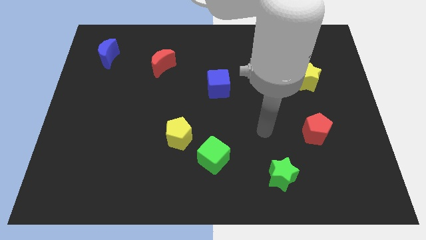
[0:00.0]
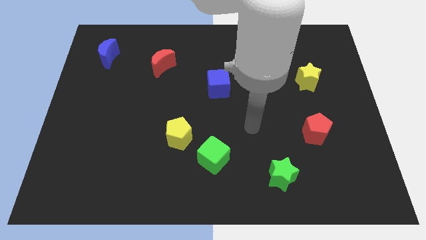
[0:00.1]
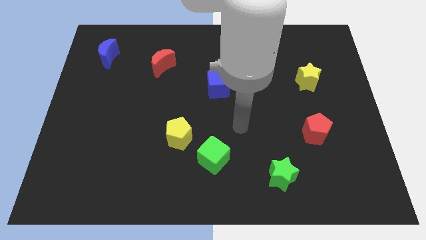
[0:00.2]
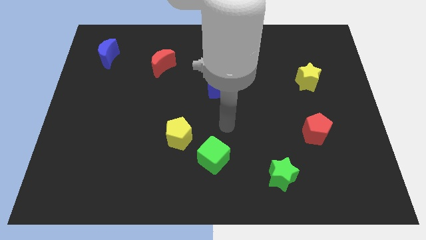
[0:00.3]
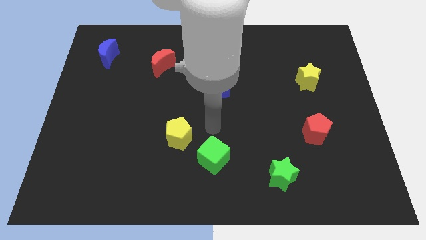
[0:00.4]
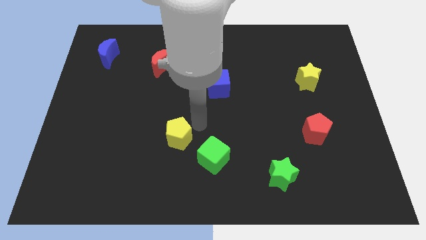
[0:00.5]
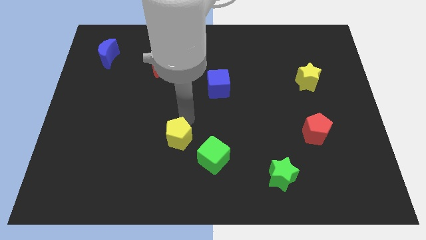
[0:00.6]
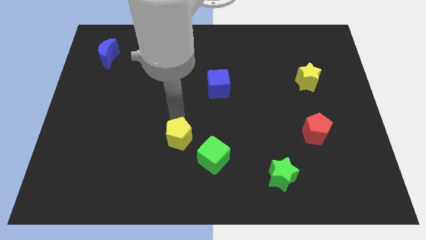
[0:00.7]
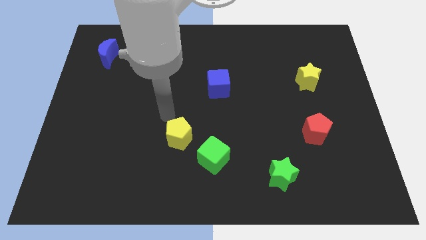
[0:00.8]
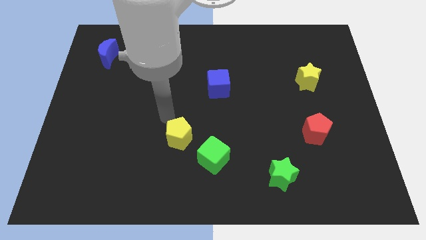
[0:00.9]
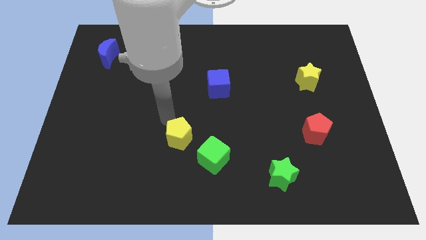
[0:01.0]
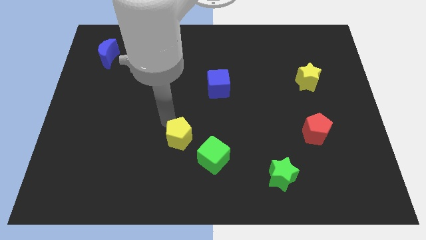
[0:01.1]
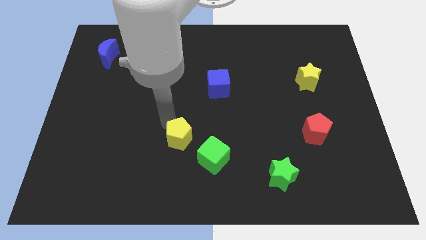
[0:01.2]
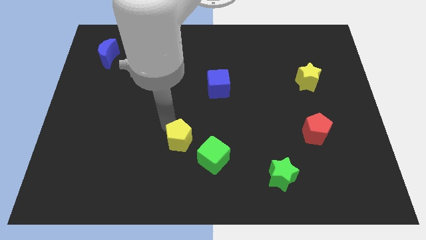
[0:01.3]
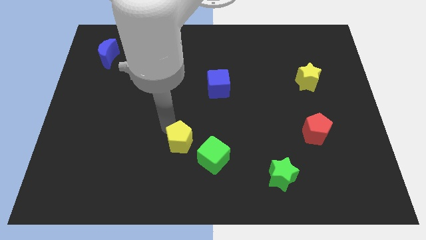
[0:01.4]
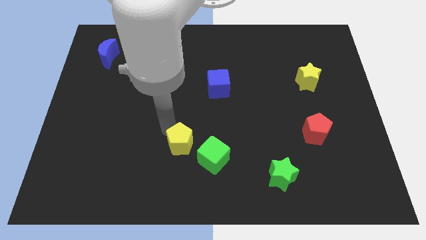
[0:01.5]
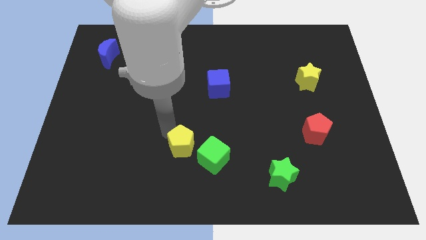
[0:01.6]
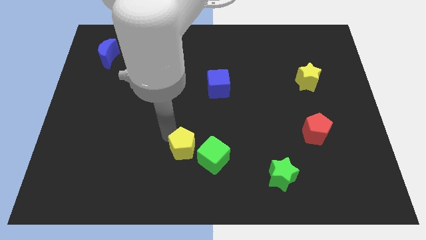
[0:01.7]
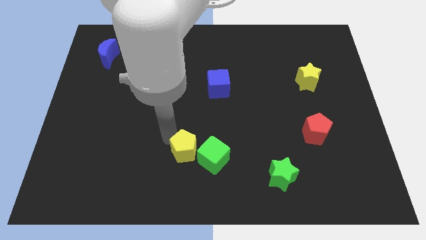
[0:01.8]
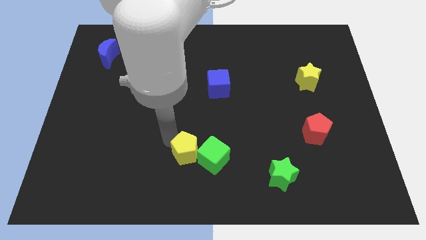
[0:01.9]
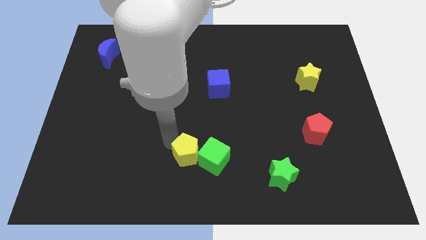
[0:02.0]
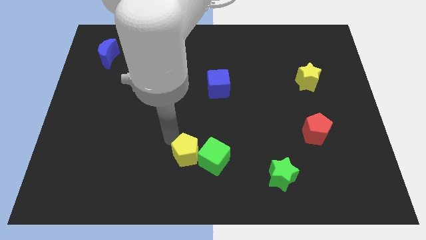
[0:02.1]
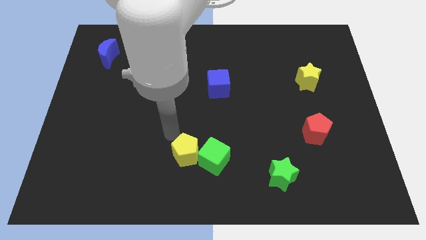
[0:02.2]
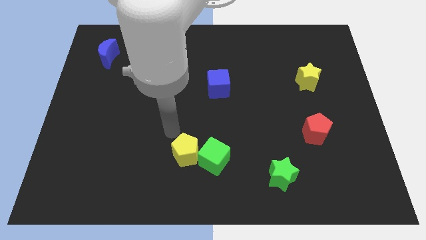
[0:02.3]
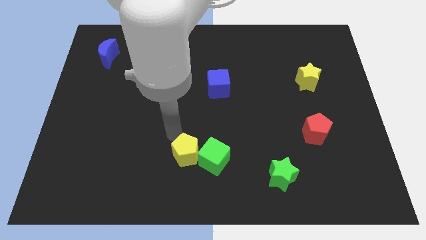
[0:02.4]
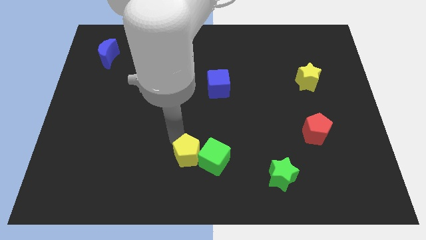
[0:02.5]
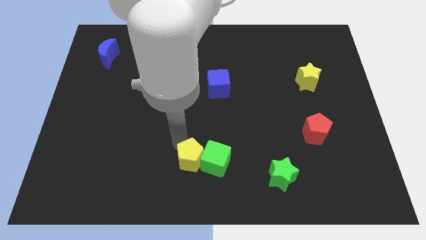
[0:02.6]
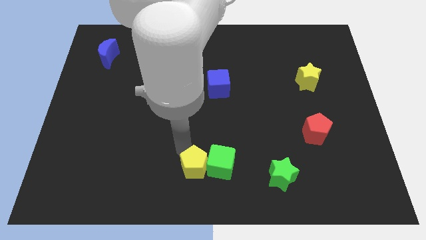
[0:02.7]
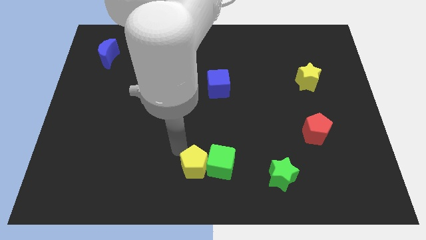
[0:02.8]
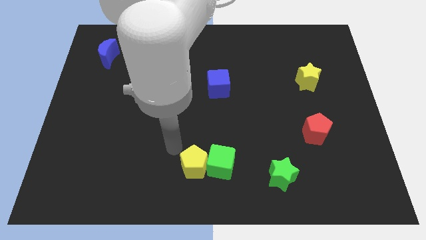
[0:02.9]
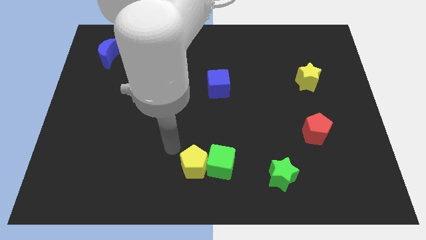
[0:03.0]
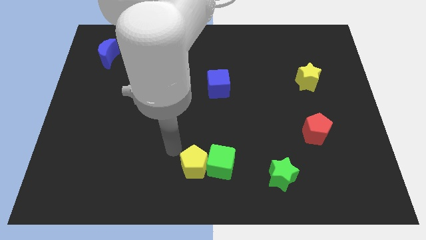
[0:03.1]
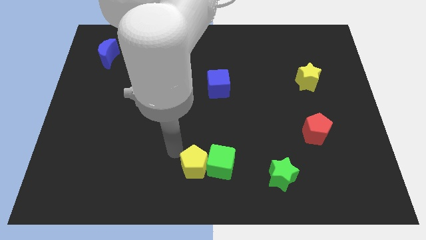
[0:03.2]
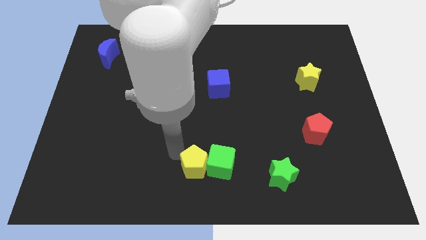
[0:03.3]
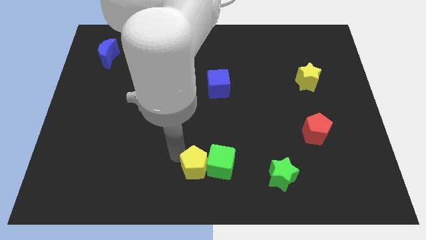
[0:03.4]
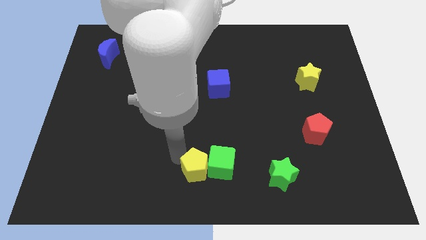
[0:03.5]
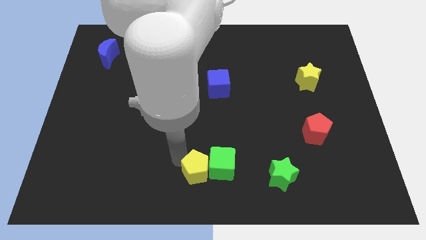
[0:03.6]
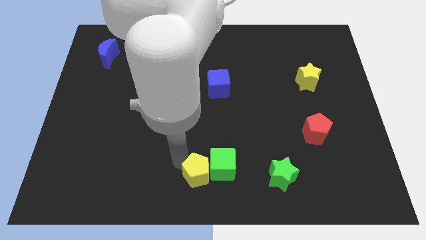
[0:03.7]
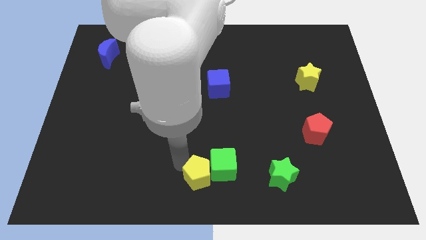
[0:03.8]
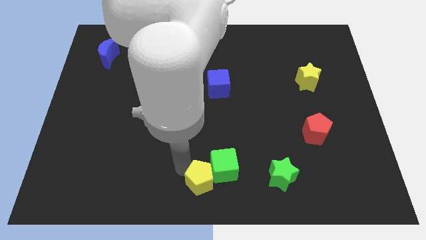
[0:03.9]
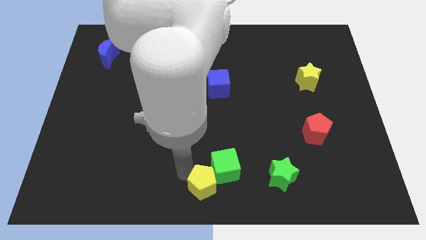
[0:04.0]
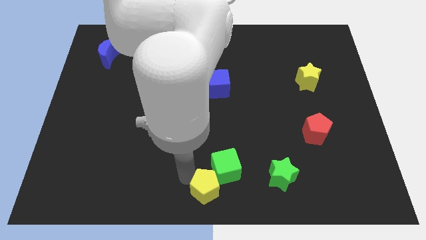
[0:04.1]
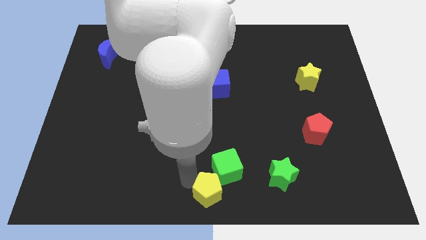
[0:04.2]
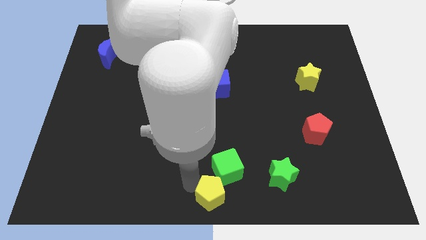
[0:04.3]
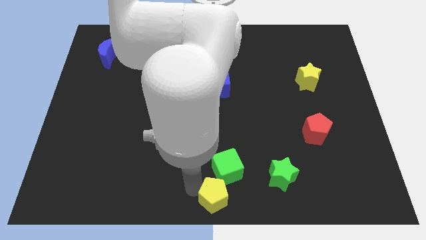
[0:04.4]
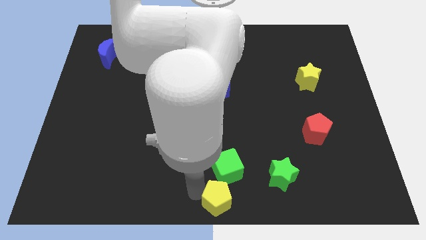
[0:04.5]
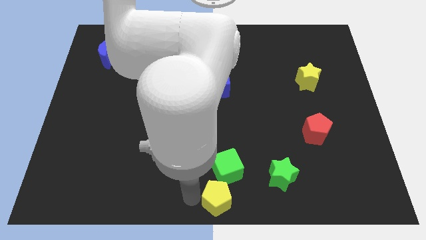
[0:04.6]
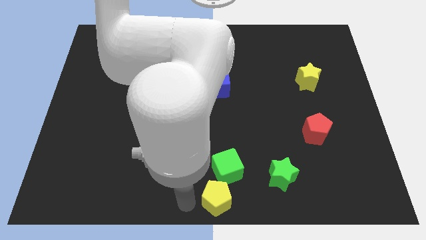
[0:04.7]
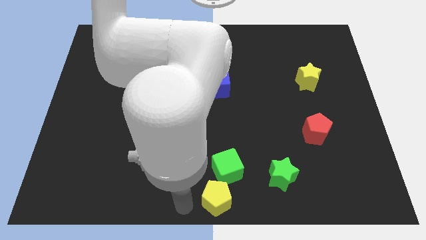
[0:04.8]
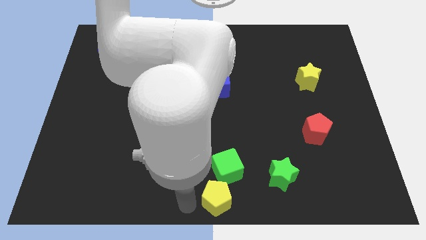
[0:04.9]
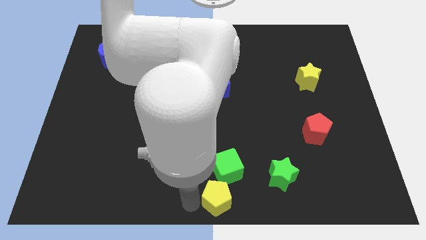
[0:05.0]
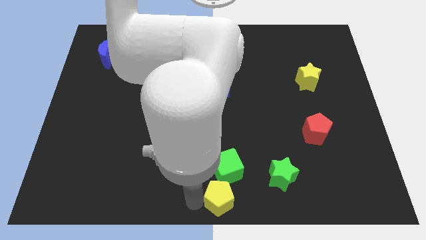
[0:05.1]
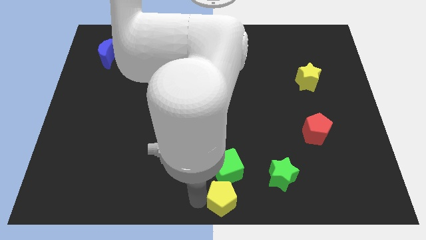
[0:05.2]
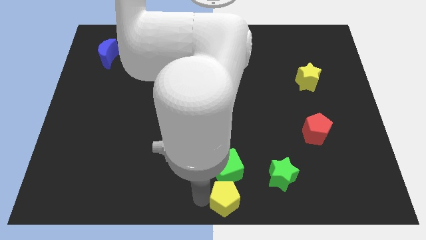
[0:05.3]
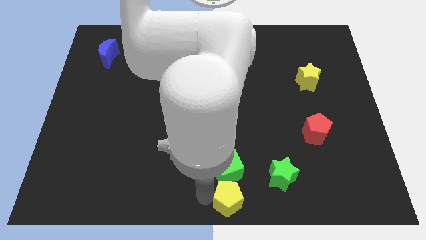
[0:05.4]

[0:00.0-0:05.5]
put the yellow pentagon to the bottom right of the green cube

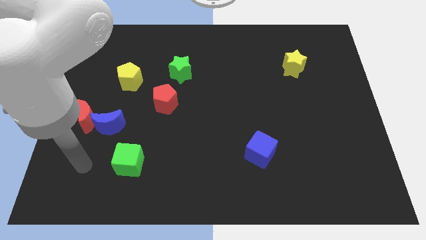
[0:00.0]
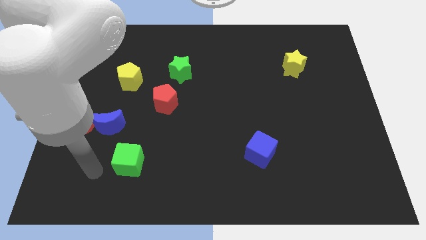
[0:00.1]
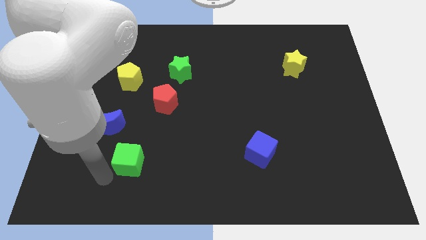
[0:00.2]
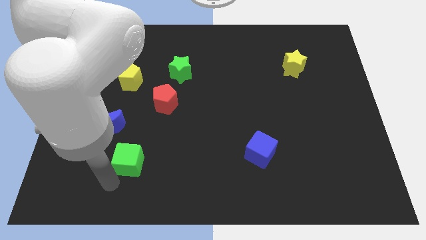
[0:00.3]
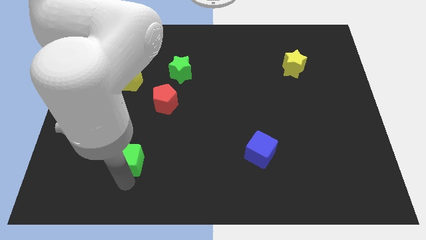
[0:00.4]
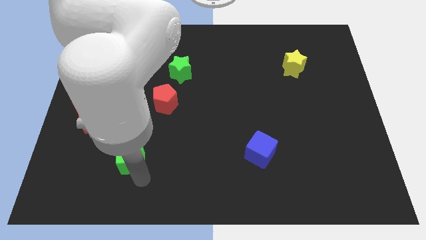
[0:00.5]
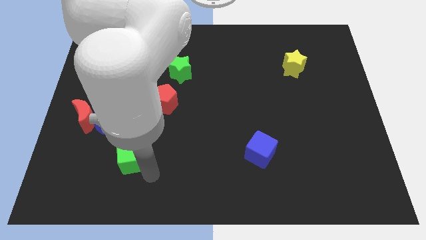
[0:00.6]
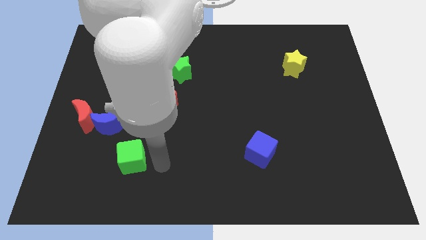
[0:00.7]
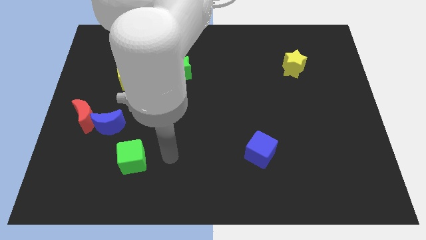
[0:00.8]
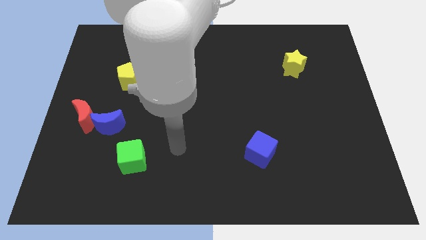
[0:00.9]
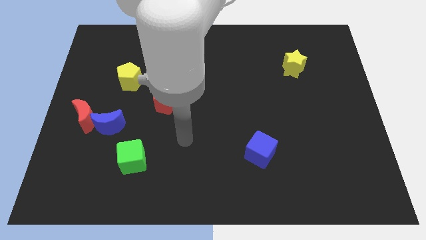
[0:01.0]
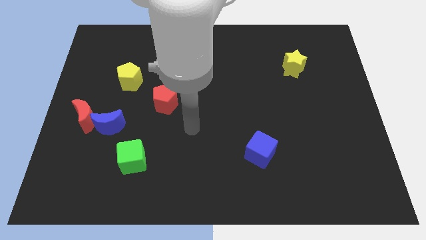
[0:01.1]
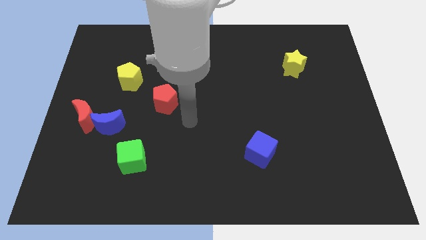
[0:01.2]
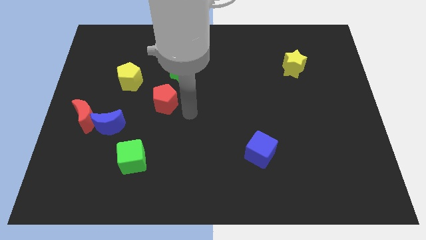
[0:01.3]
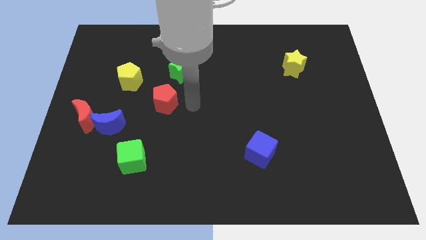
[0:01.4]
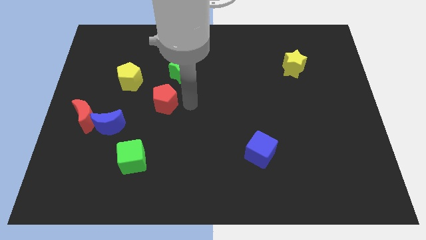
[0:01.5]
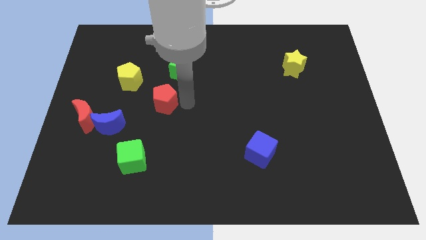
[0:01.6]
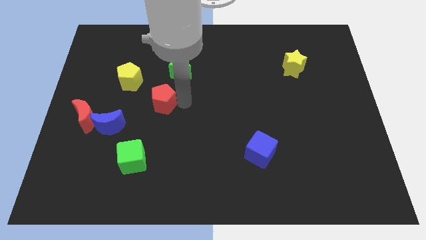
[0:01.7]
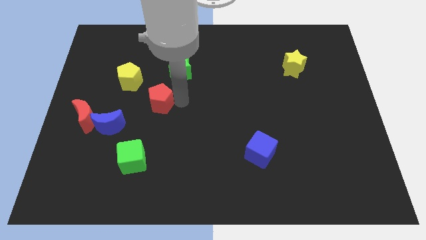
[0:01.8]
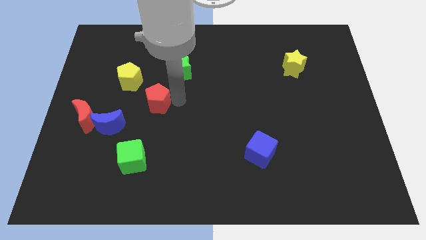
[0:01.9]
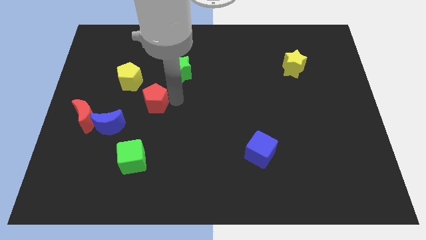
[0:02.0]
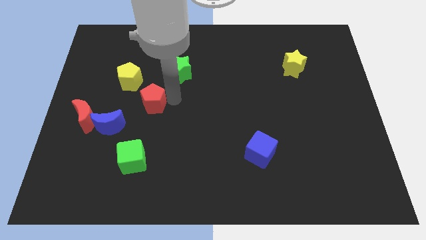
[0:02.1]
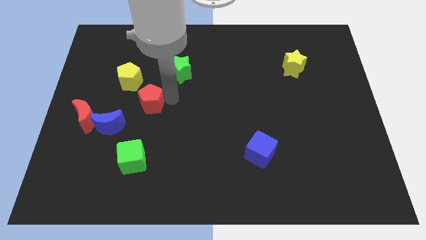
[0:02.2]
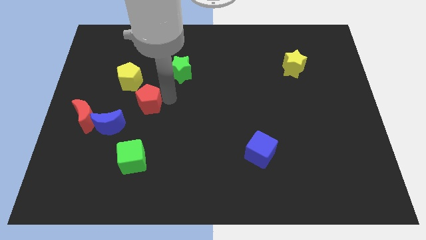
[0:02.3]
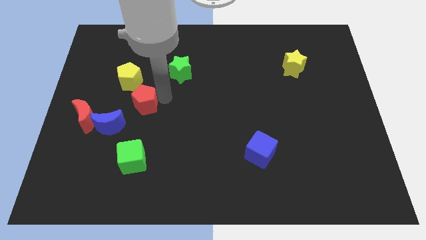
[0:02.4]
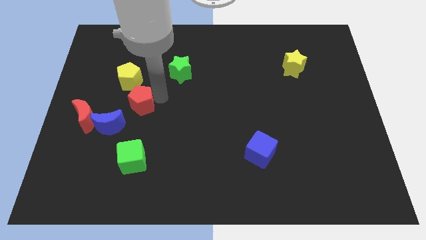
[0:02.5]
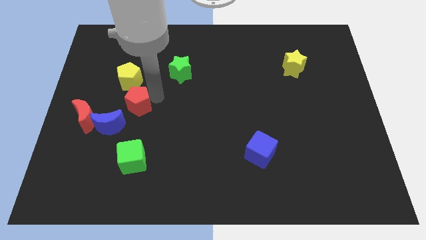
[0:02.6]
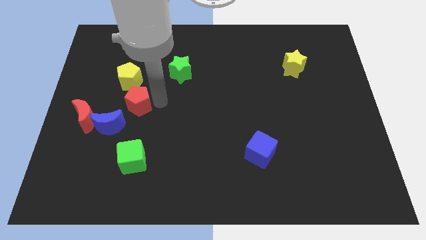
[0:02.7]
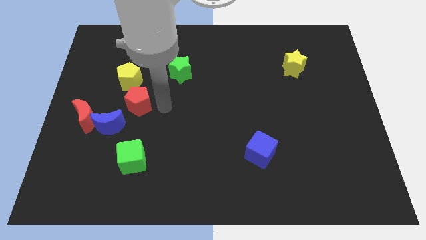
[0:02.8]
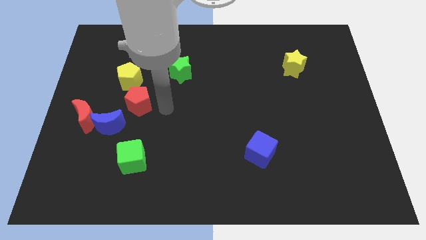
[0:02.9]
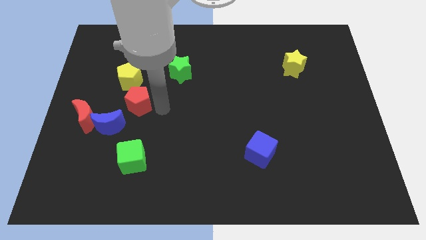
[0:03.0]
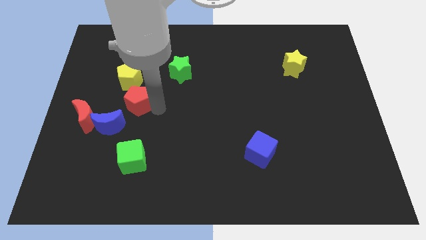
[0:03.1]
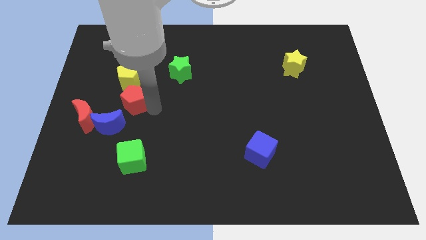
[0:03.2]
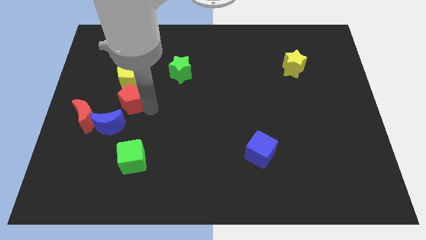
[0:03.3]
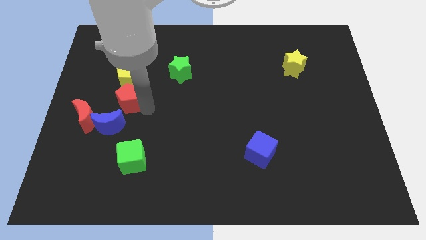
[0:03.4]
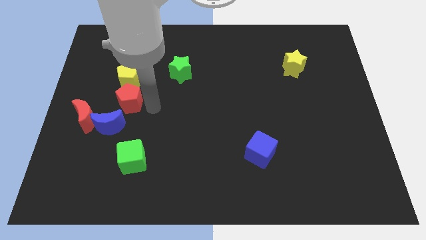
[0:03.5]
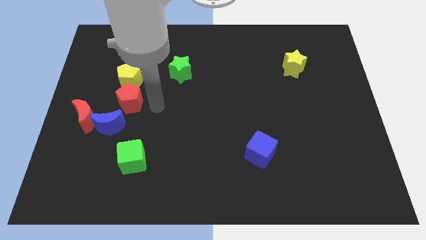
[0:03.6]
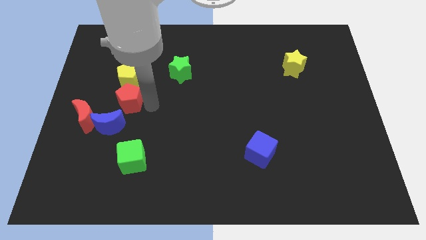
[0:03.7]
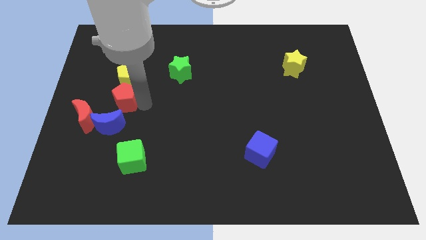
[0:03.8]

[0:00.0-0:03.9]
move the red pentagon to the bottom left side of the yellow pentagon
